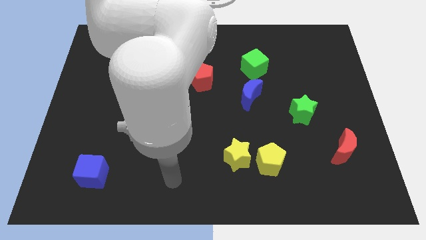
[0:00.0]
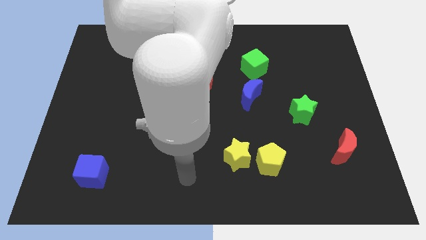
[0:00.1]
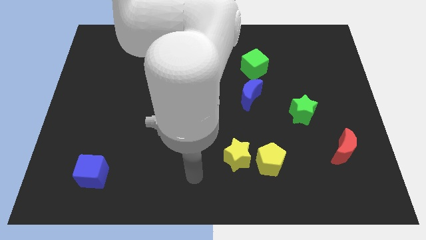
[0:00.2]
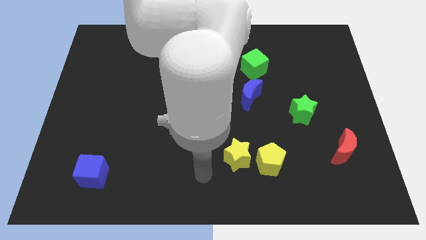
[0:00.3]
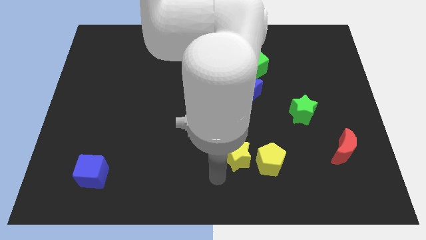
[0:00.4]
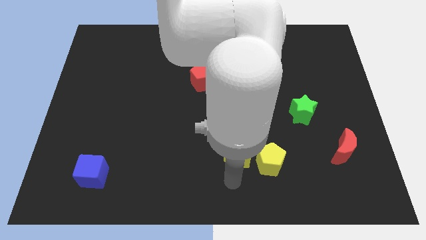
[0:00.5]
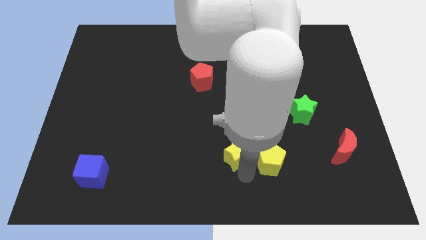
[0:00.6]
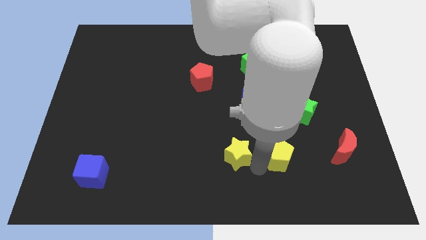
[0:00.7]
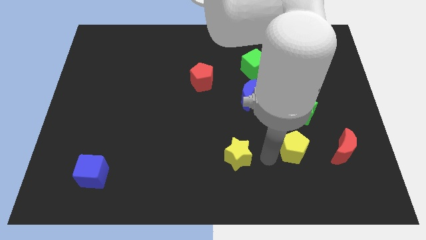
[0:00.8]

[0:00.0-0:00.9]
move the yellow star away from the yellow pentagon

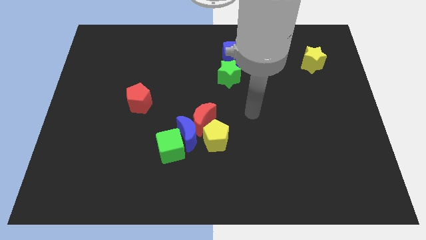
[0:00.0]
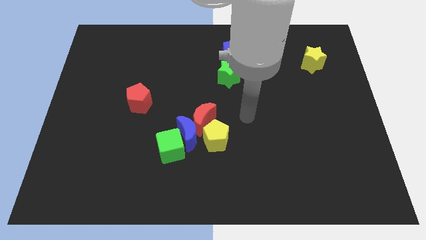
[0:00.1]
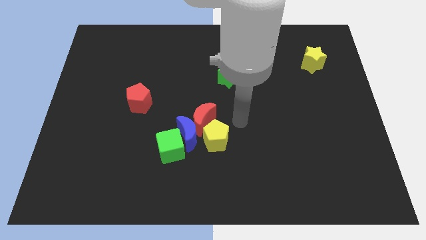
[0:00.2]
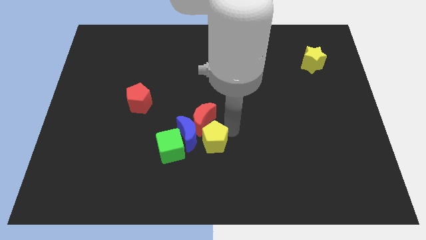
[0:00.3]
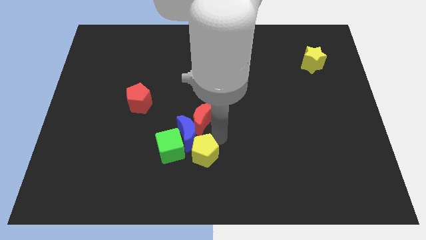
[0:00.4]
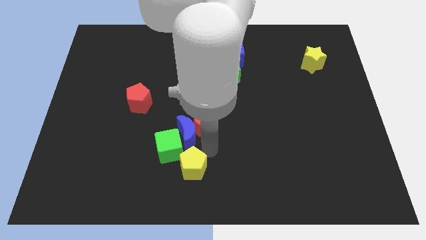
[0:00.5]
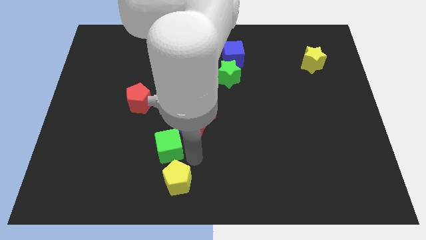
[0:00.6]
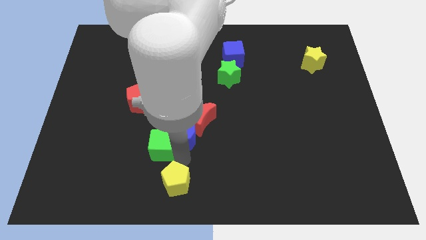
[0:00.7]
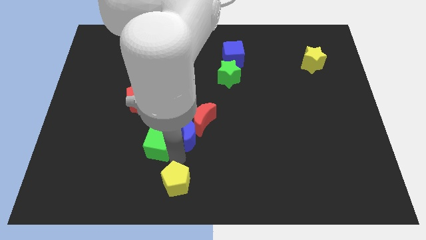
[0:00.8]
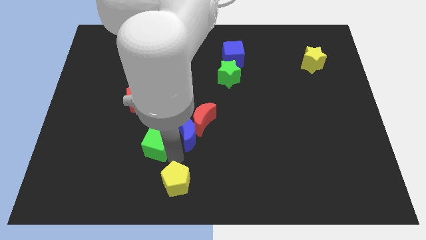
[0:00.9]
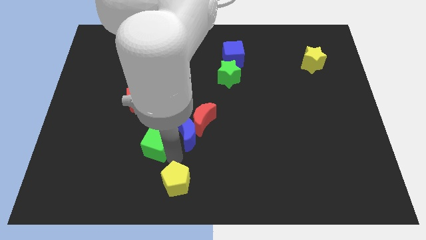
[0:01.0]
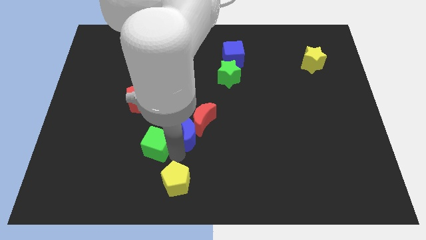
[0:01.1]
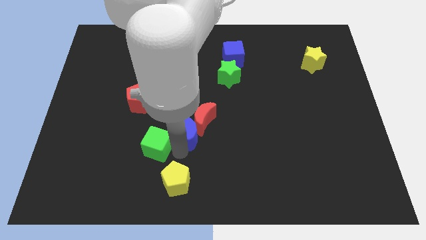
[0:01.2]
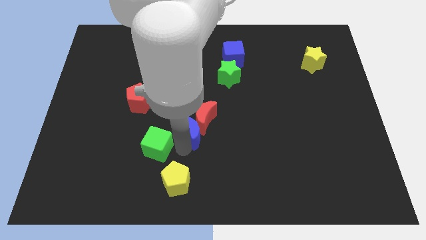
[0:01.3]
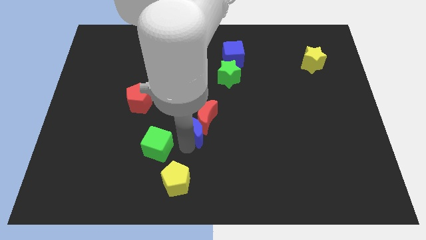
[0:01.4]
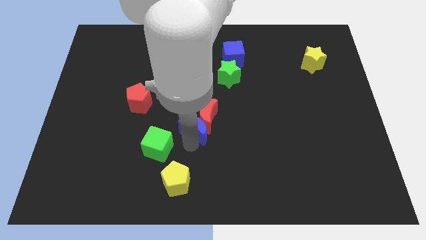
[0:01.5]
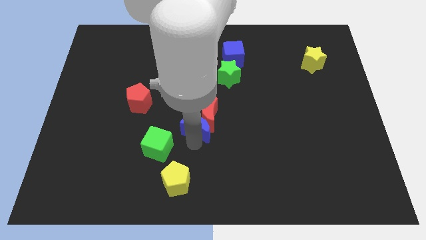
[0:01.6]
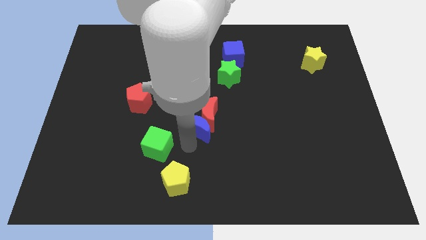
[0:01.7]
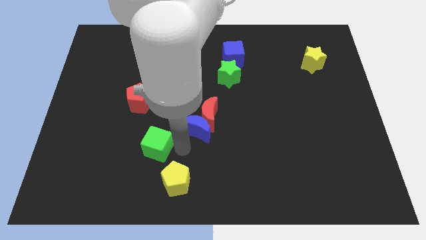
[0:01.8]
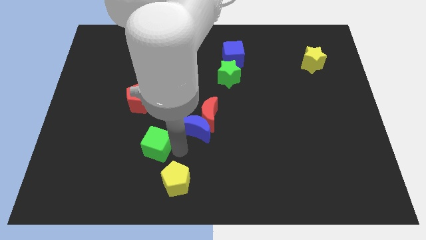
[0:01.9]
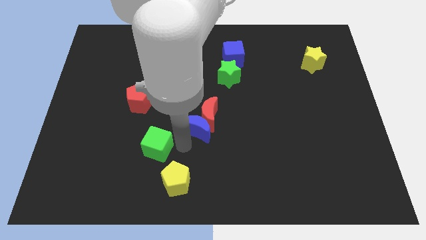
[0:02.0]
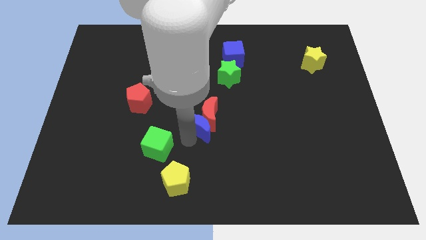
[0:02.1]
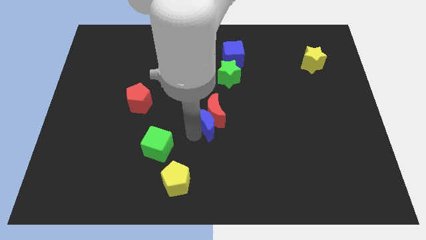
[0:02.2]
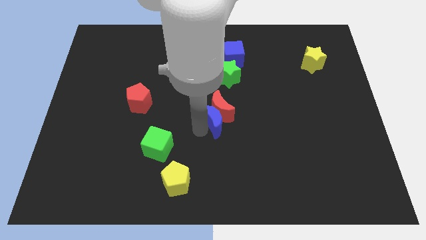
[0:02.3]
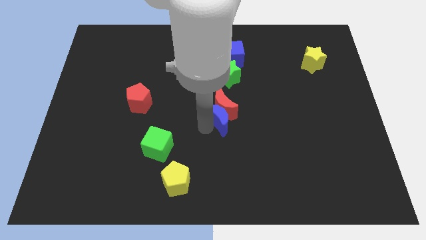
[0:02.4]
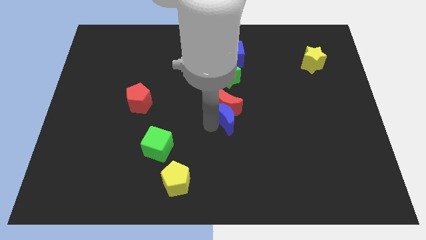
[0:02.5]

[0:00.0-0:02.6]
pull the blue moon apart from the red moon, green cube, and yellow pentagon

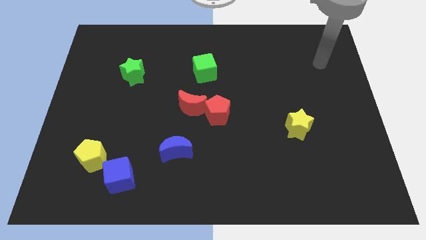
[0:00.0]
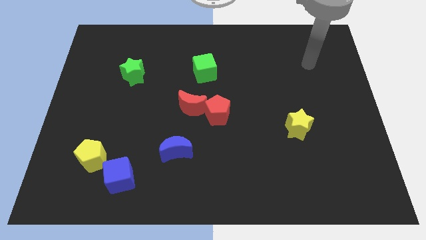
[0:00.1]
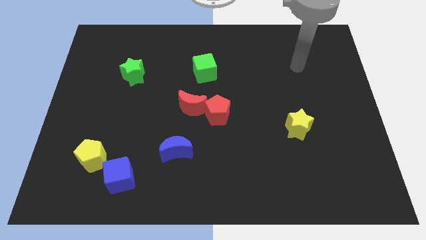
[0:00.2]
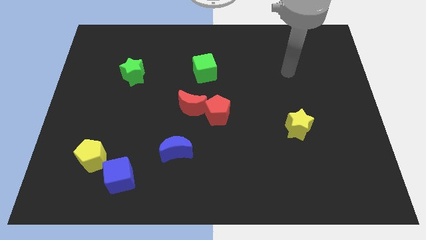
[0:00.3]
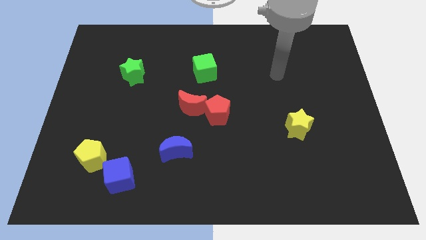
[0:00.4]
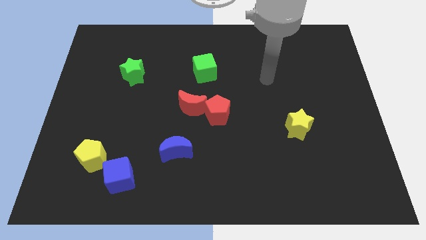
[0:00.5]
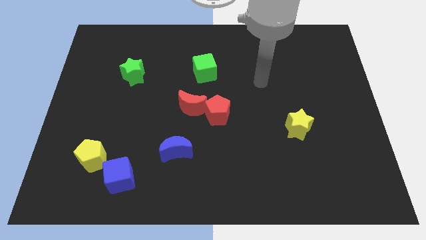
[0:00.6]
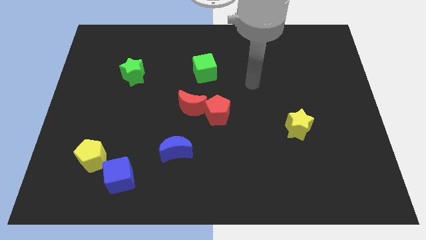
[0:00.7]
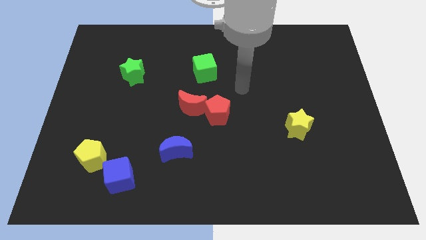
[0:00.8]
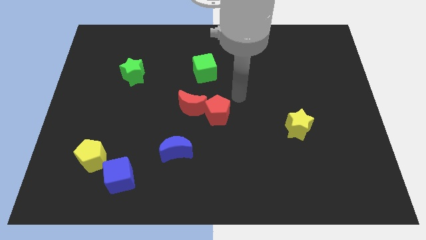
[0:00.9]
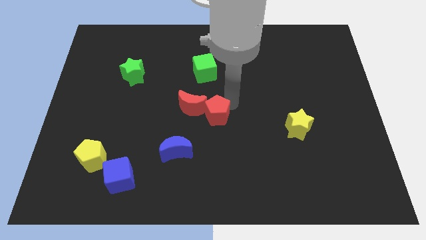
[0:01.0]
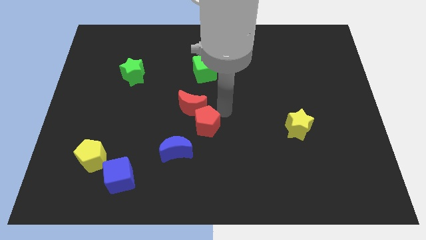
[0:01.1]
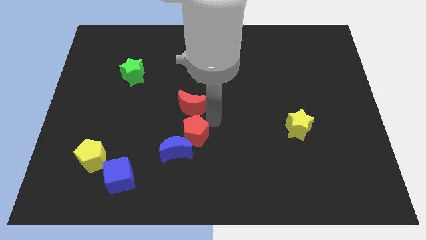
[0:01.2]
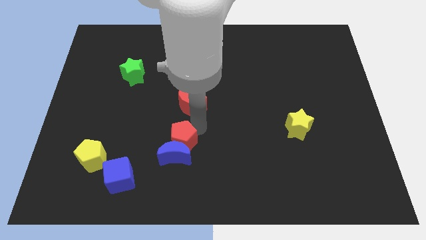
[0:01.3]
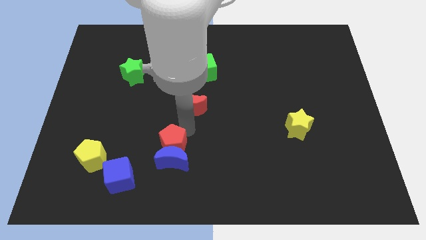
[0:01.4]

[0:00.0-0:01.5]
pull the red moon apart from the red pentagon

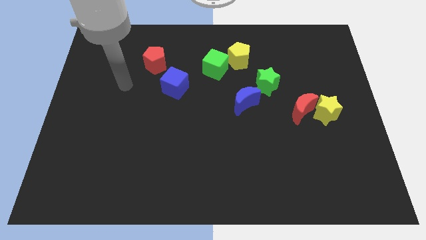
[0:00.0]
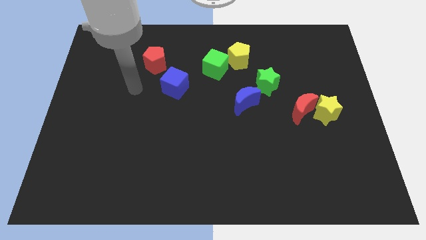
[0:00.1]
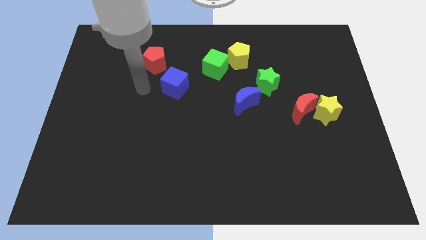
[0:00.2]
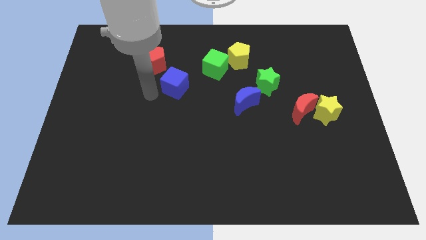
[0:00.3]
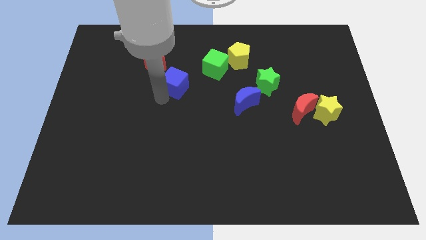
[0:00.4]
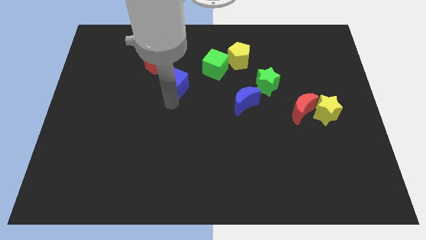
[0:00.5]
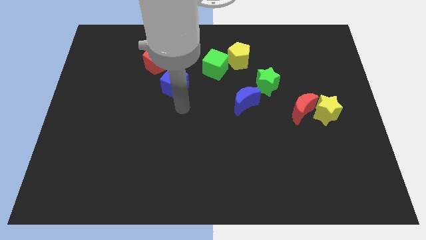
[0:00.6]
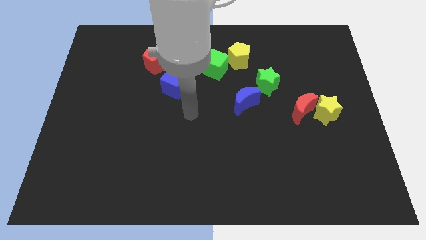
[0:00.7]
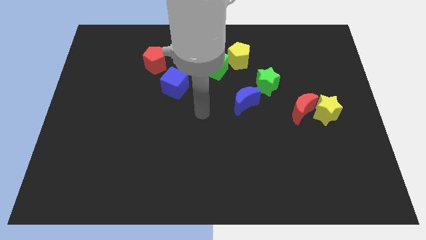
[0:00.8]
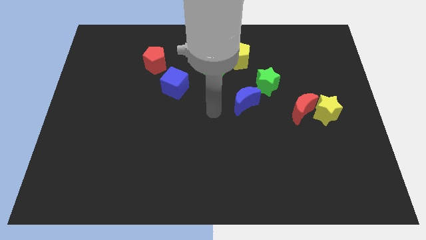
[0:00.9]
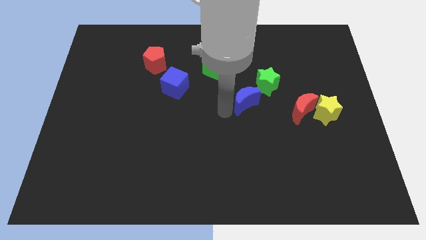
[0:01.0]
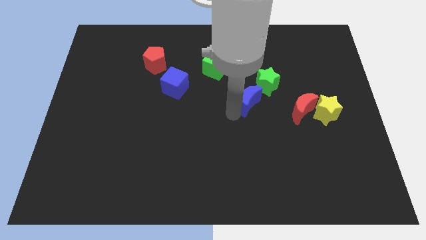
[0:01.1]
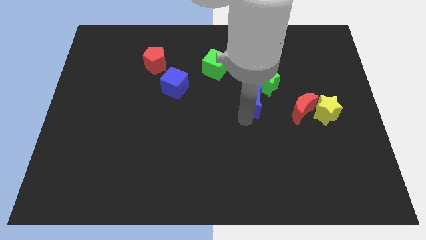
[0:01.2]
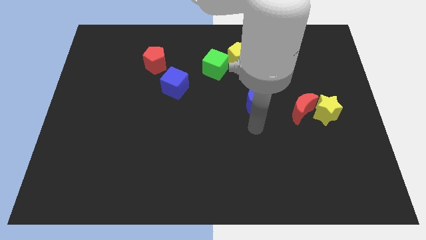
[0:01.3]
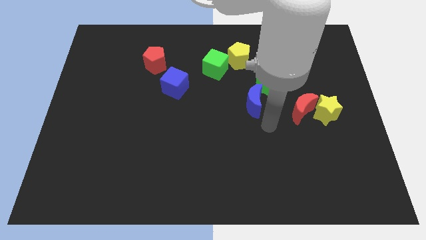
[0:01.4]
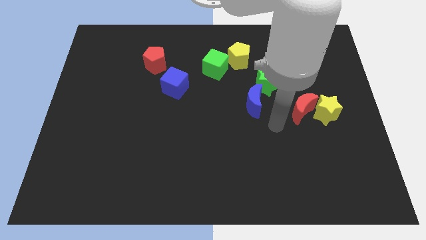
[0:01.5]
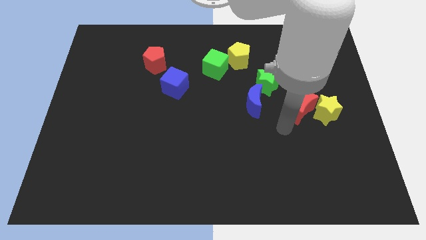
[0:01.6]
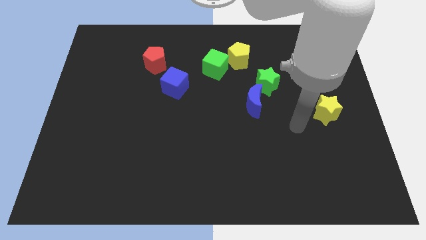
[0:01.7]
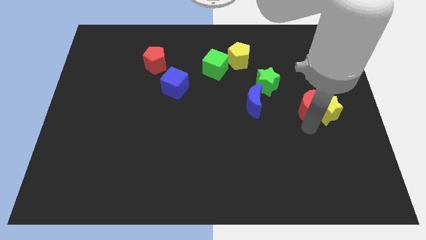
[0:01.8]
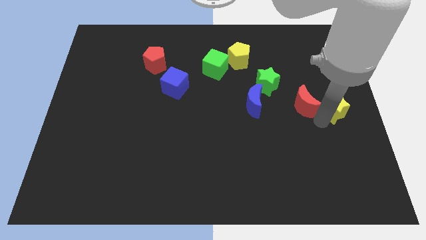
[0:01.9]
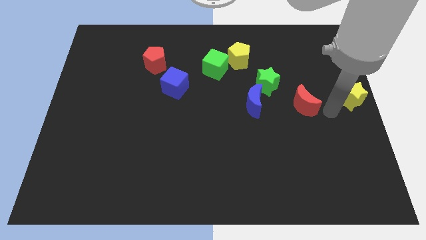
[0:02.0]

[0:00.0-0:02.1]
separate the red moon from the yellow star

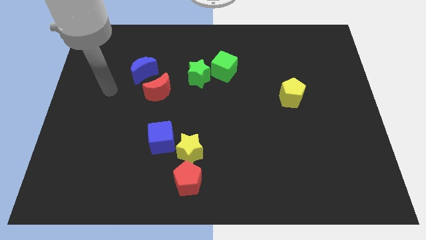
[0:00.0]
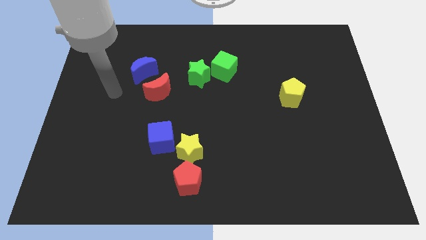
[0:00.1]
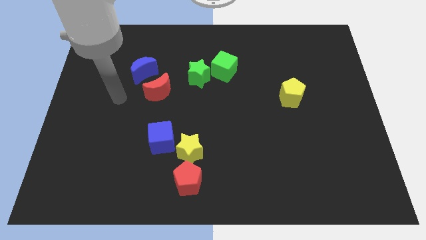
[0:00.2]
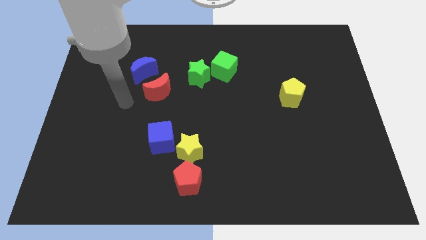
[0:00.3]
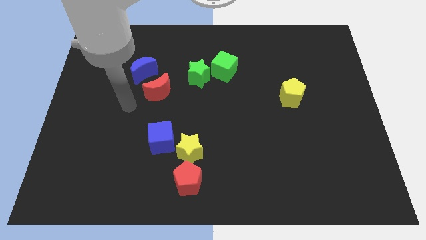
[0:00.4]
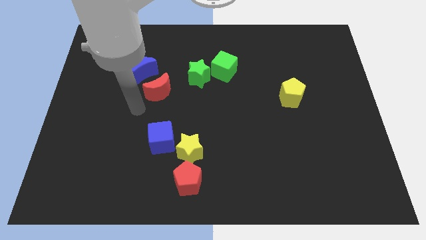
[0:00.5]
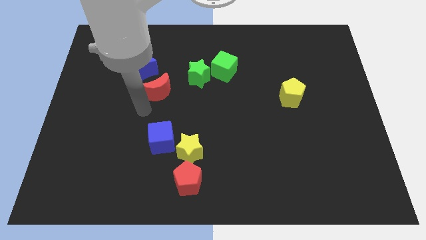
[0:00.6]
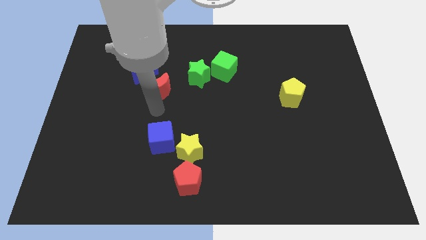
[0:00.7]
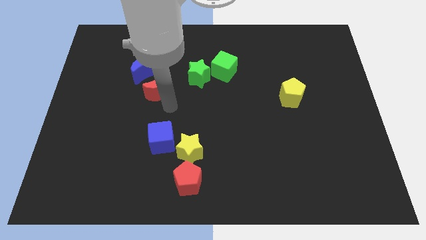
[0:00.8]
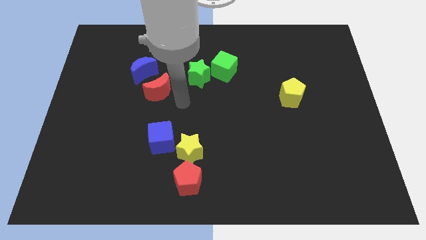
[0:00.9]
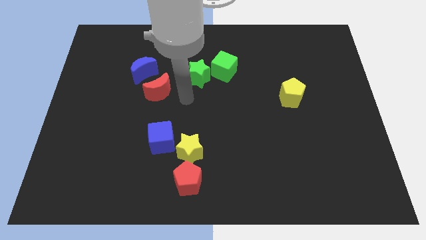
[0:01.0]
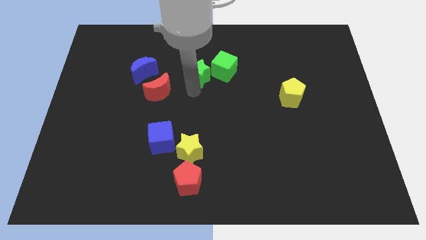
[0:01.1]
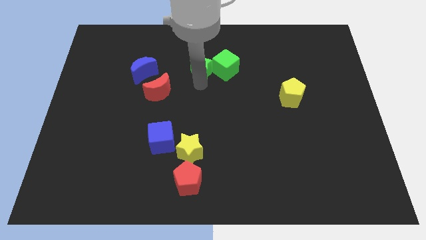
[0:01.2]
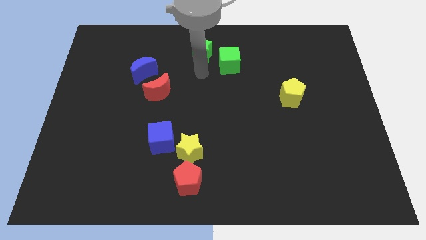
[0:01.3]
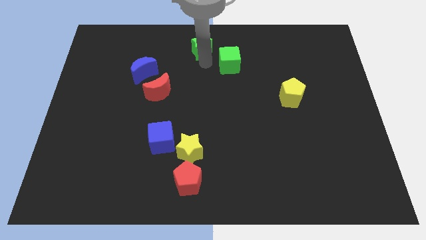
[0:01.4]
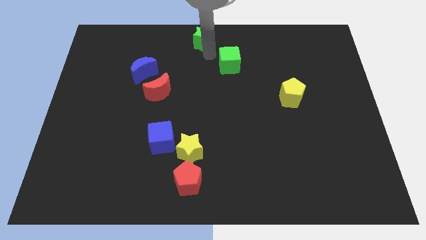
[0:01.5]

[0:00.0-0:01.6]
pull the green cube apart from the green star

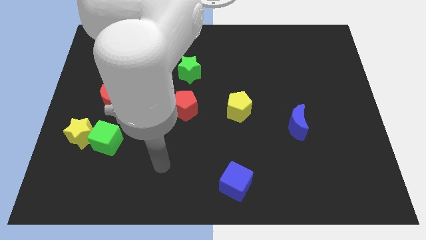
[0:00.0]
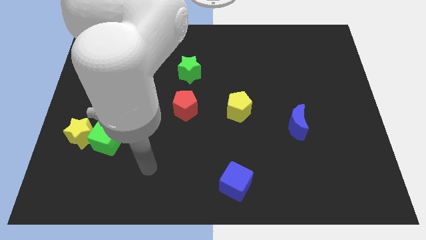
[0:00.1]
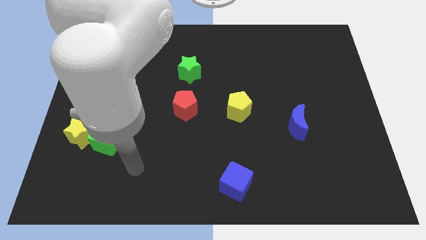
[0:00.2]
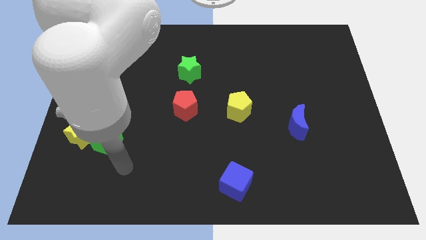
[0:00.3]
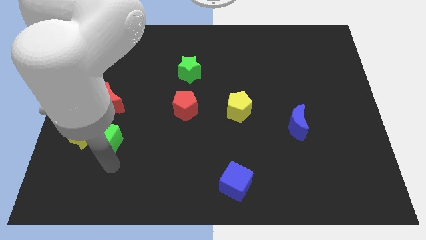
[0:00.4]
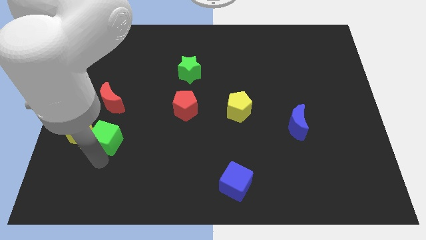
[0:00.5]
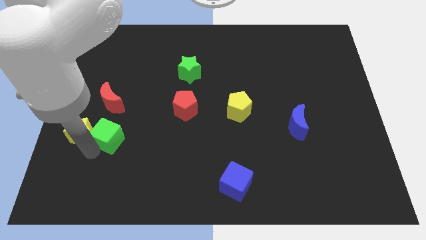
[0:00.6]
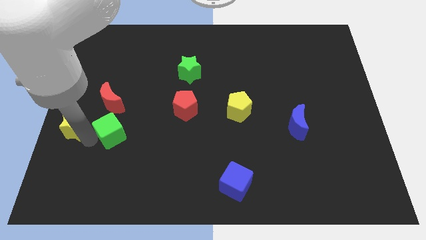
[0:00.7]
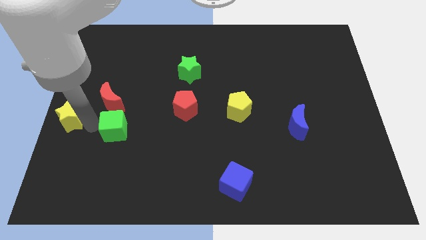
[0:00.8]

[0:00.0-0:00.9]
pull the green cube apart from the yellow star
